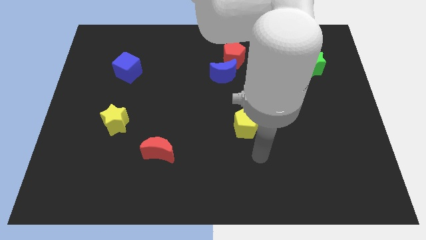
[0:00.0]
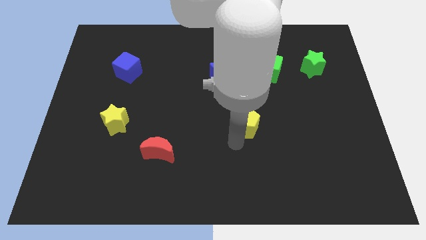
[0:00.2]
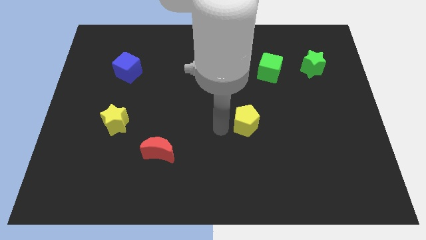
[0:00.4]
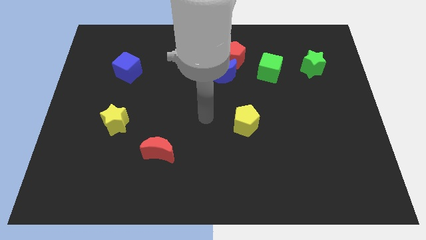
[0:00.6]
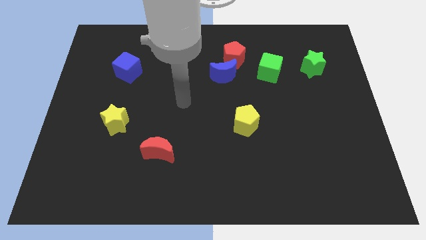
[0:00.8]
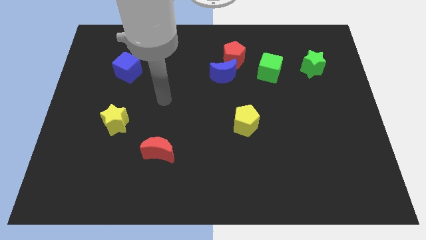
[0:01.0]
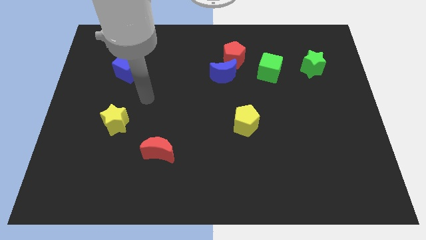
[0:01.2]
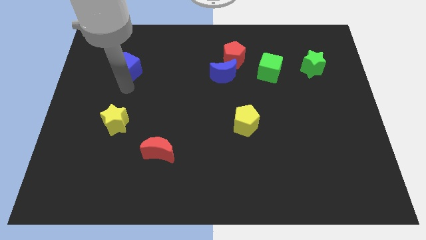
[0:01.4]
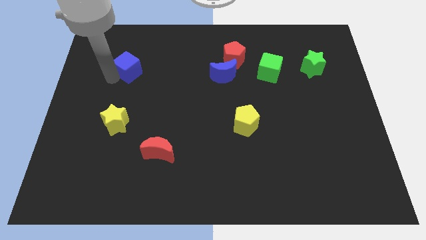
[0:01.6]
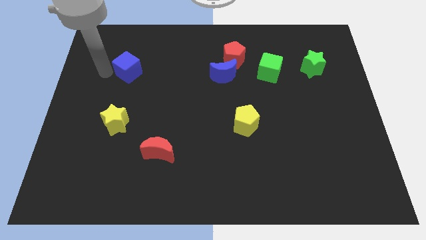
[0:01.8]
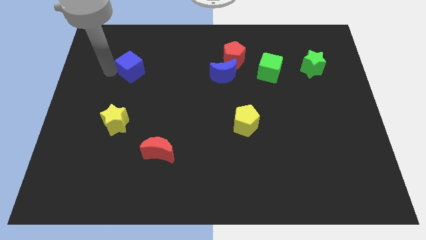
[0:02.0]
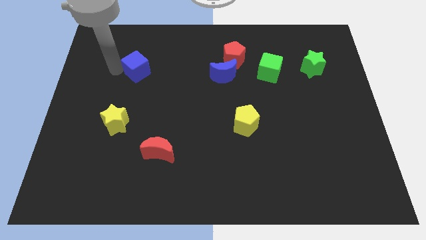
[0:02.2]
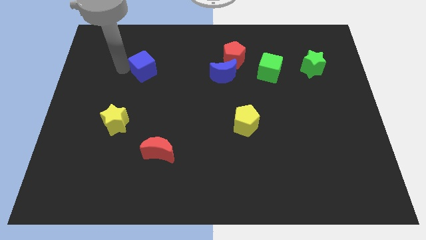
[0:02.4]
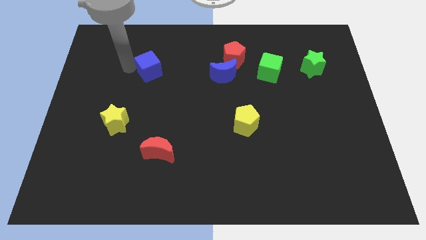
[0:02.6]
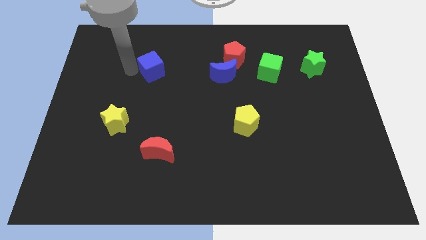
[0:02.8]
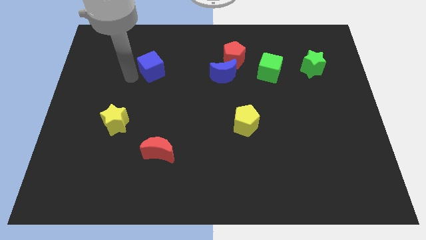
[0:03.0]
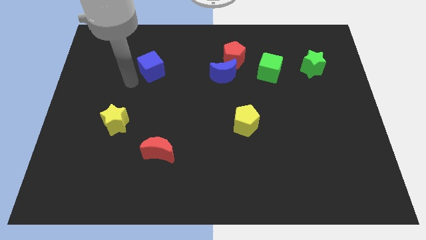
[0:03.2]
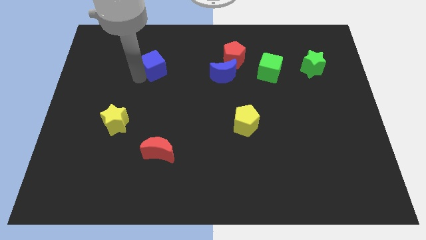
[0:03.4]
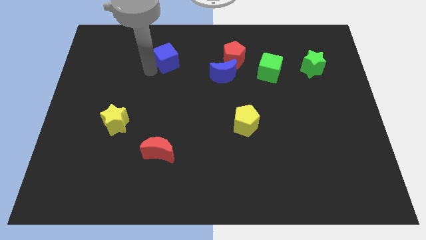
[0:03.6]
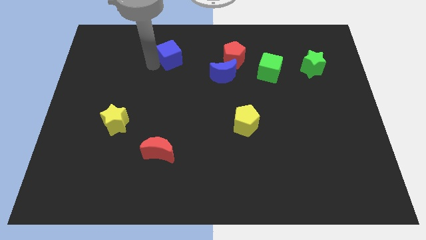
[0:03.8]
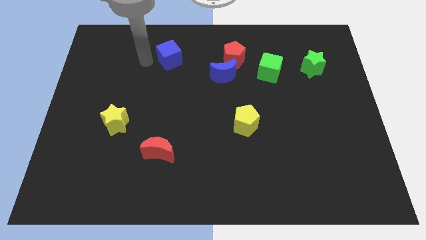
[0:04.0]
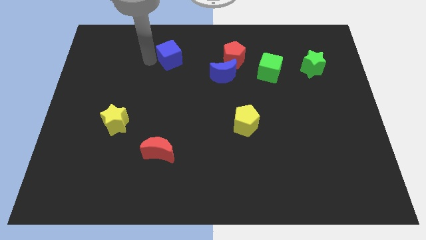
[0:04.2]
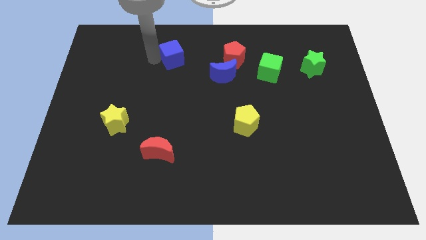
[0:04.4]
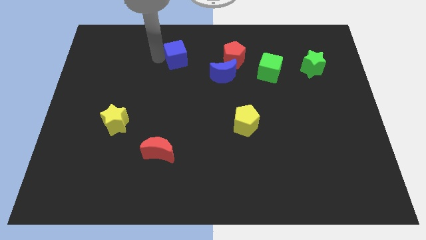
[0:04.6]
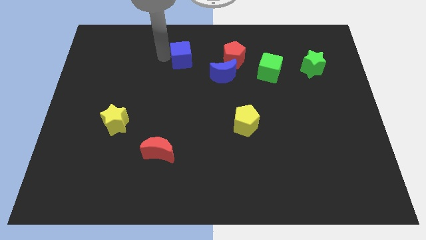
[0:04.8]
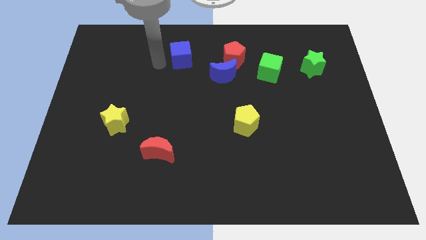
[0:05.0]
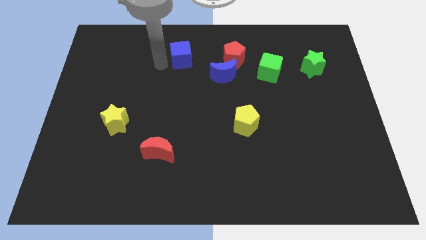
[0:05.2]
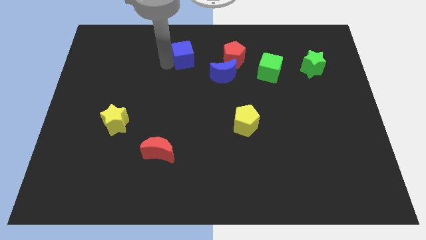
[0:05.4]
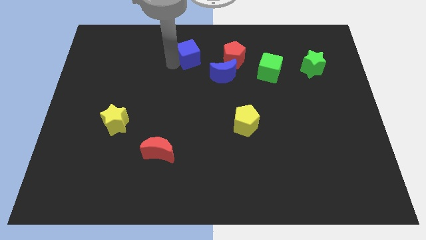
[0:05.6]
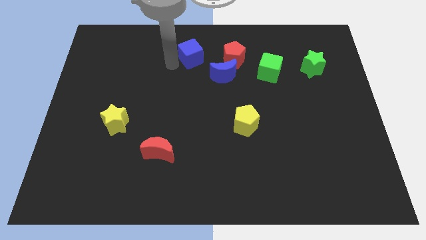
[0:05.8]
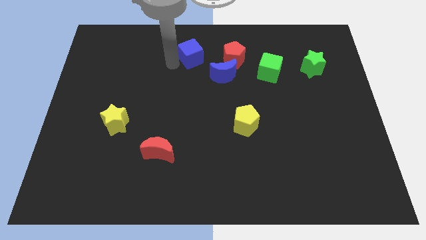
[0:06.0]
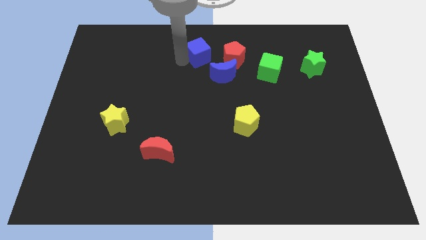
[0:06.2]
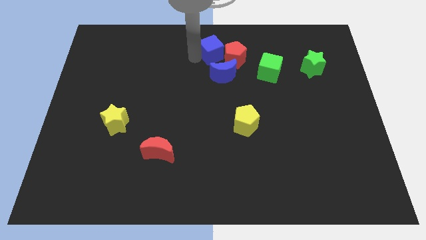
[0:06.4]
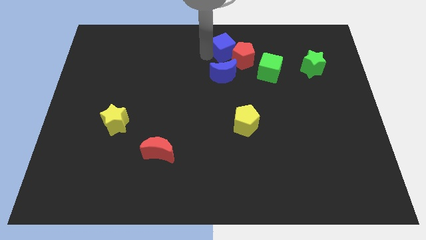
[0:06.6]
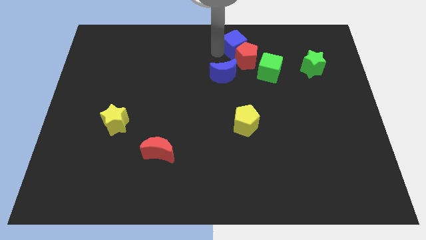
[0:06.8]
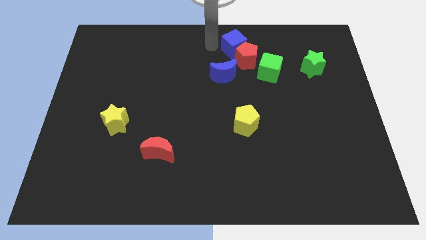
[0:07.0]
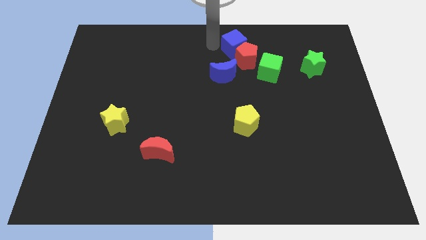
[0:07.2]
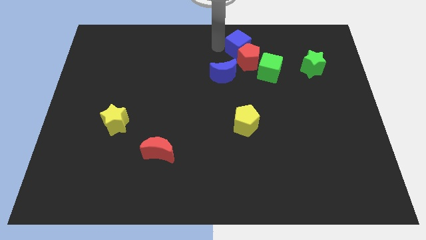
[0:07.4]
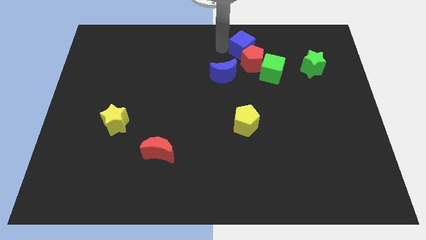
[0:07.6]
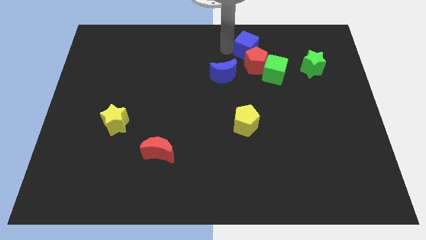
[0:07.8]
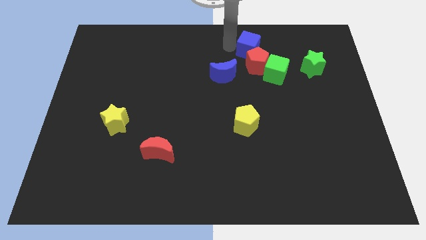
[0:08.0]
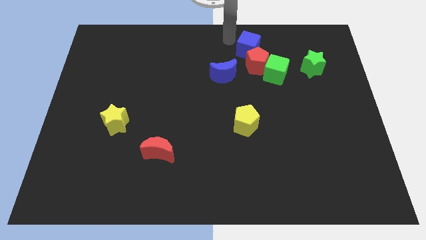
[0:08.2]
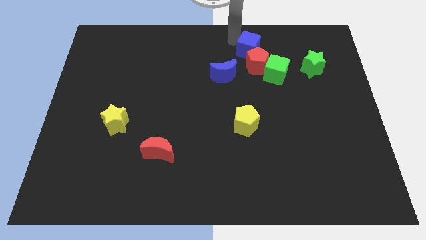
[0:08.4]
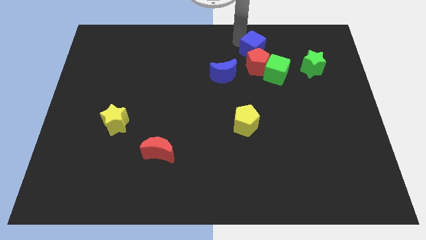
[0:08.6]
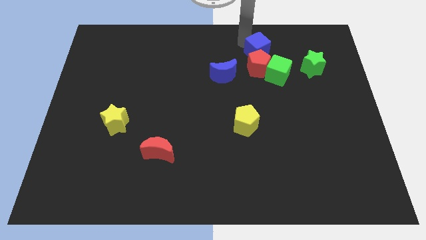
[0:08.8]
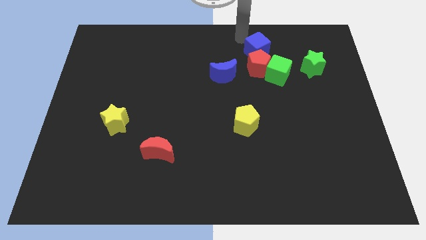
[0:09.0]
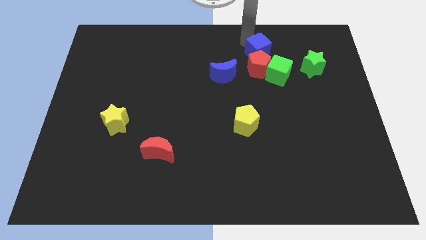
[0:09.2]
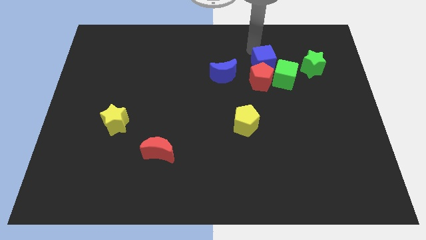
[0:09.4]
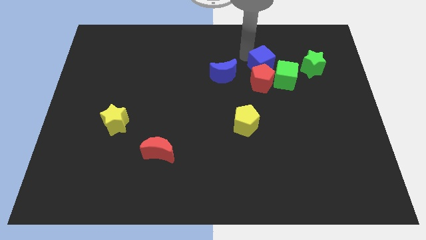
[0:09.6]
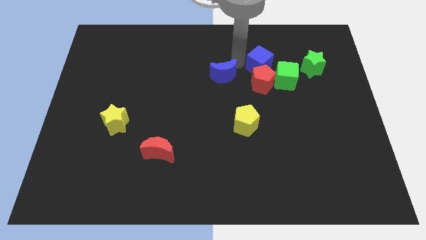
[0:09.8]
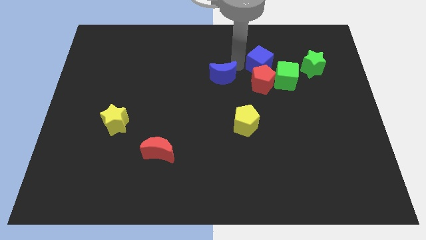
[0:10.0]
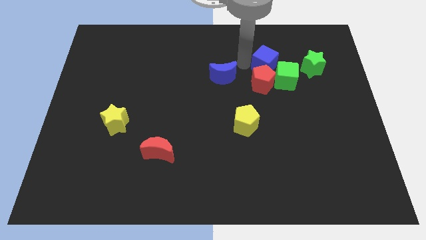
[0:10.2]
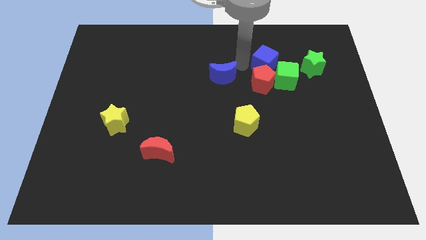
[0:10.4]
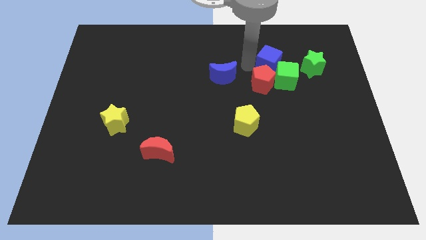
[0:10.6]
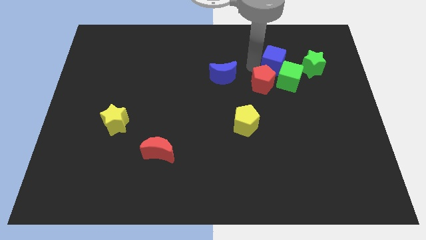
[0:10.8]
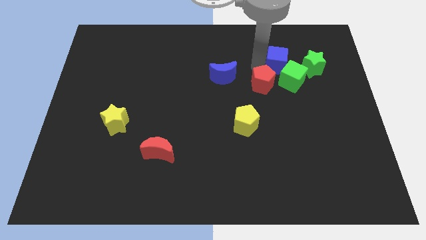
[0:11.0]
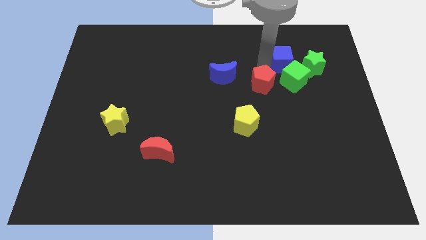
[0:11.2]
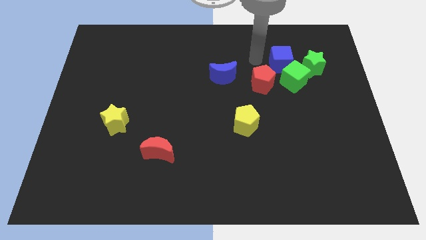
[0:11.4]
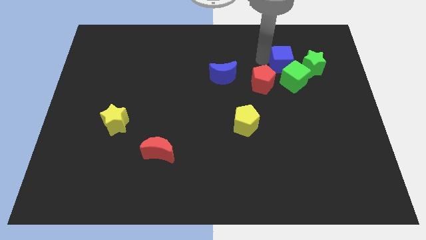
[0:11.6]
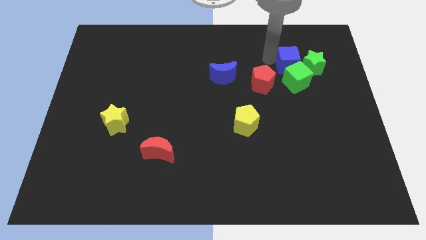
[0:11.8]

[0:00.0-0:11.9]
push the blue cube close to the green star
